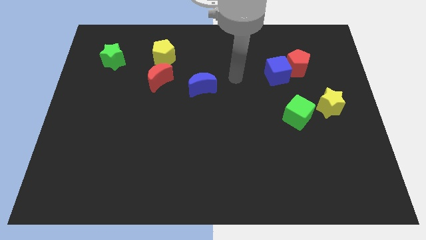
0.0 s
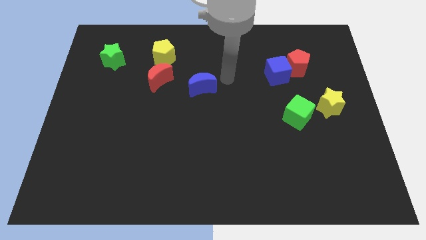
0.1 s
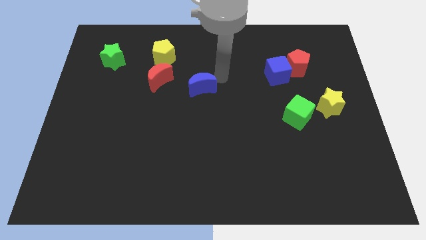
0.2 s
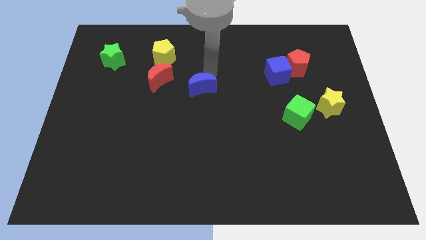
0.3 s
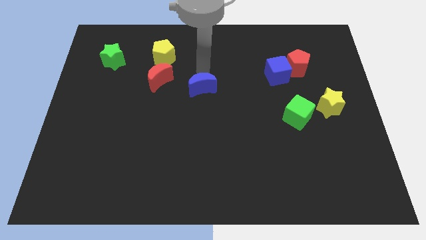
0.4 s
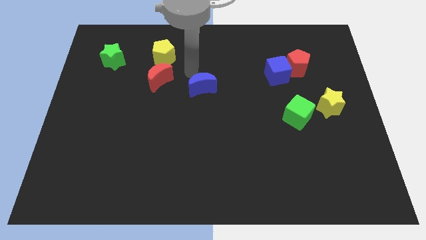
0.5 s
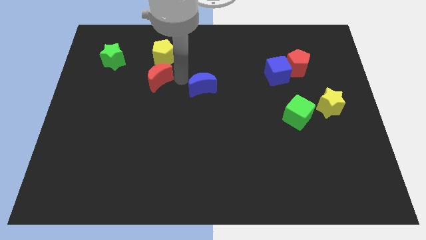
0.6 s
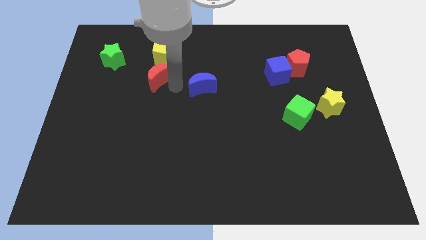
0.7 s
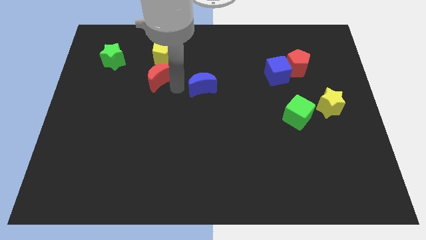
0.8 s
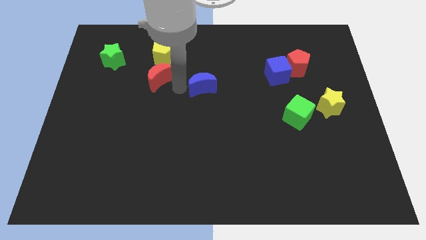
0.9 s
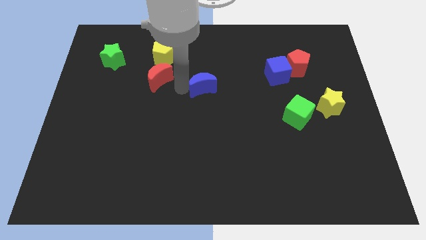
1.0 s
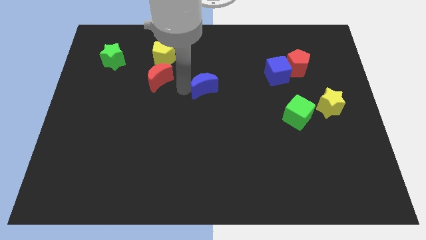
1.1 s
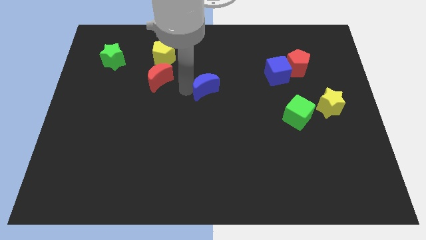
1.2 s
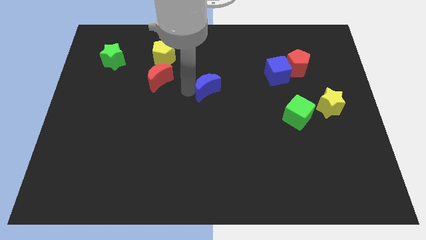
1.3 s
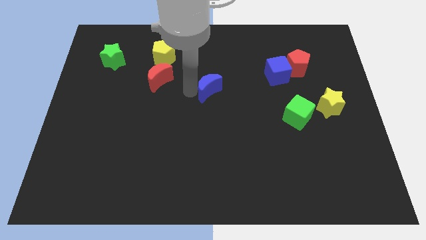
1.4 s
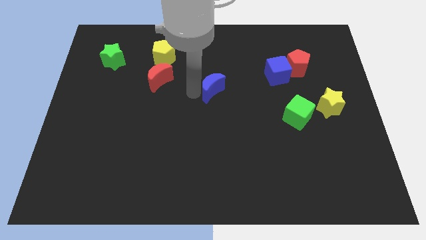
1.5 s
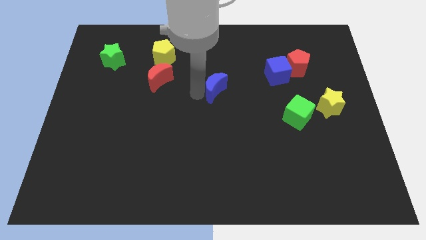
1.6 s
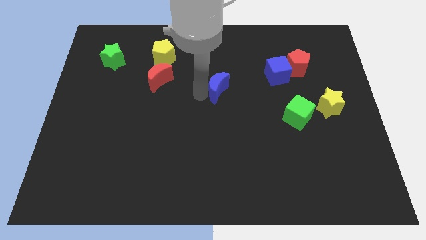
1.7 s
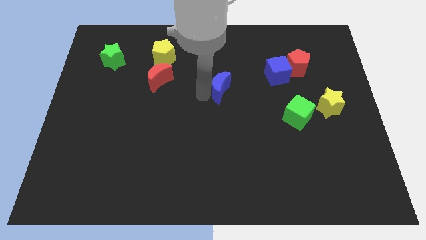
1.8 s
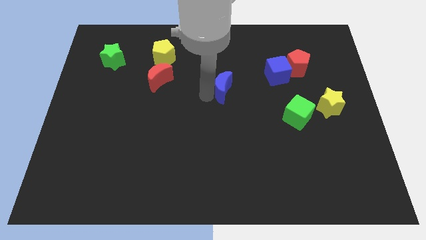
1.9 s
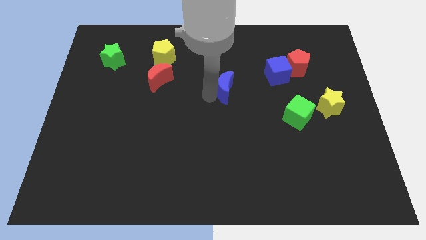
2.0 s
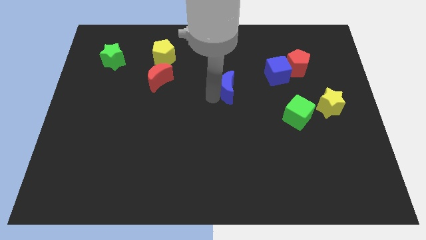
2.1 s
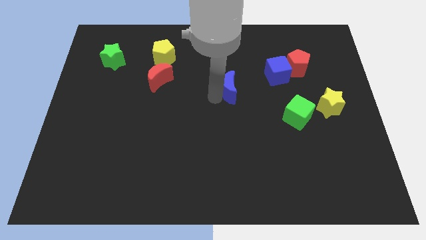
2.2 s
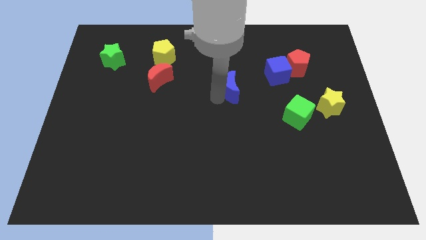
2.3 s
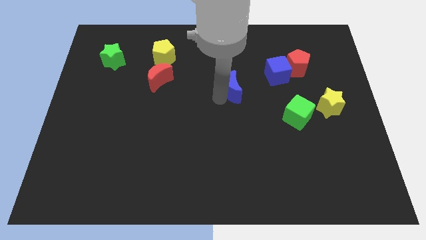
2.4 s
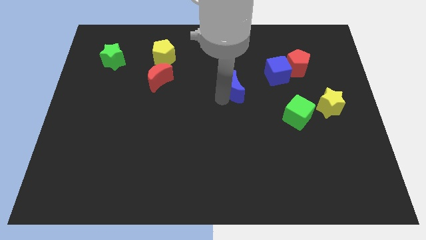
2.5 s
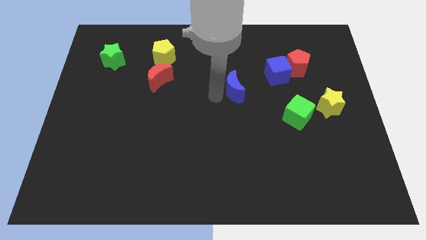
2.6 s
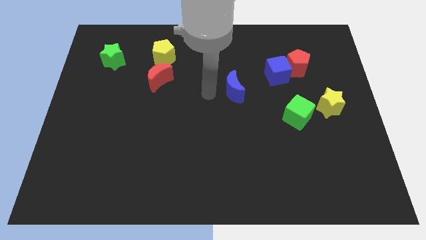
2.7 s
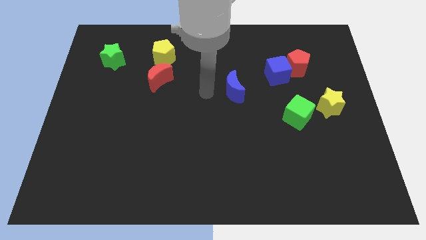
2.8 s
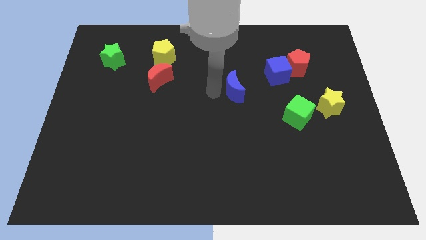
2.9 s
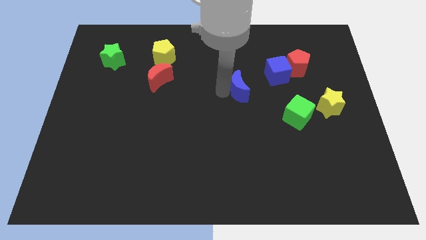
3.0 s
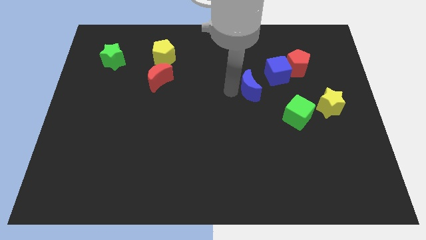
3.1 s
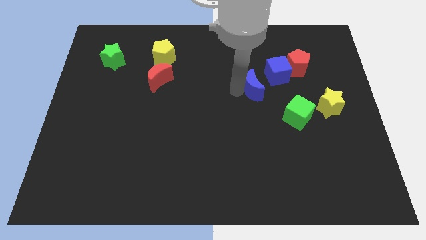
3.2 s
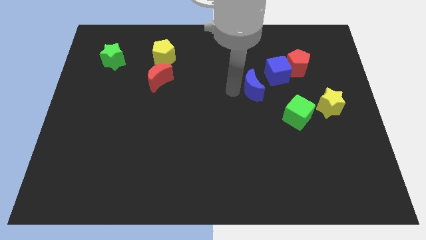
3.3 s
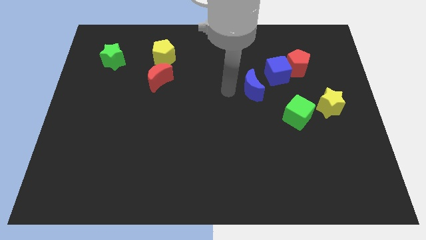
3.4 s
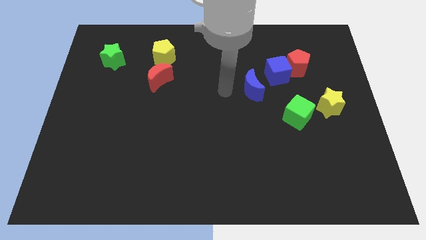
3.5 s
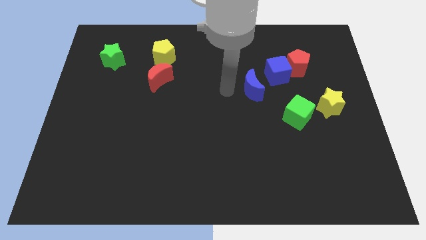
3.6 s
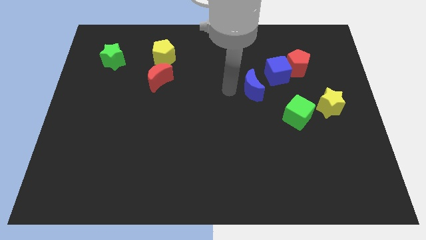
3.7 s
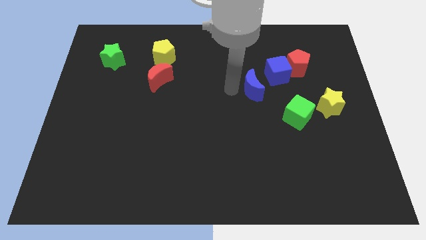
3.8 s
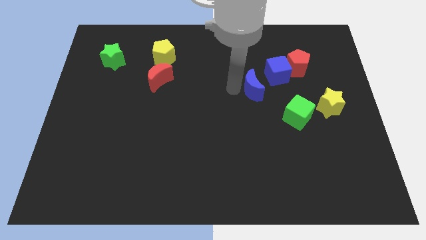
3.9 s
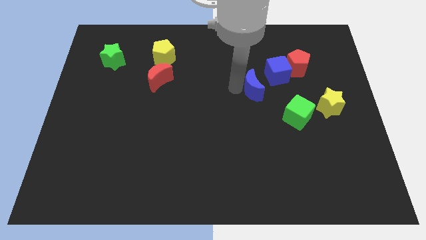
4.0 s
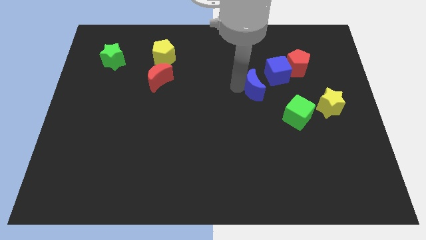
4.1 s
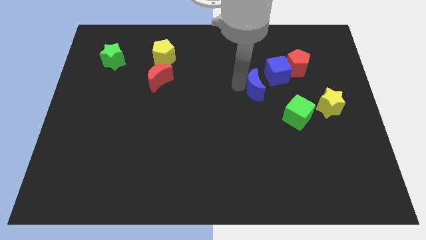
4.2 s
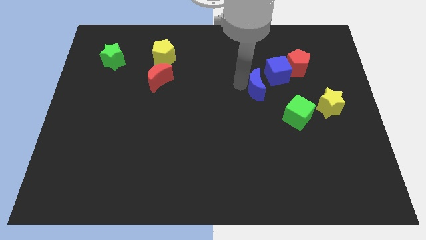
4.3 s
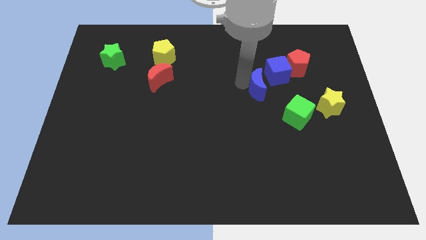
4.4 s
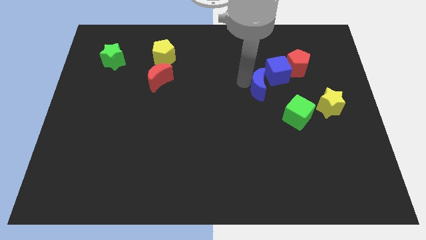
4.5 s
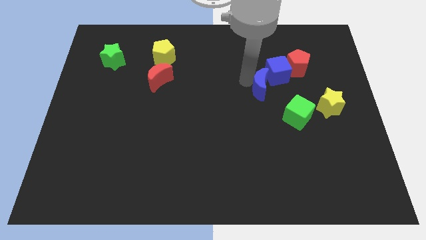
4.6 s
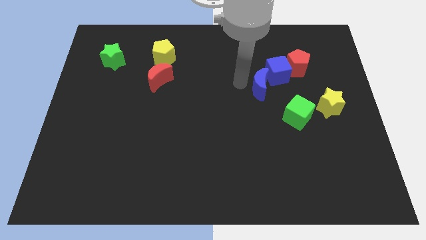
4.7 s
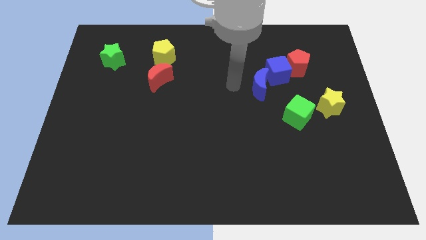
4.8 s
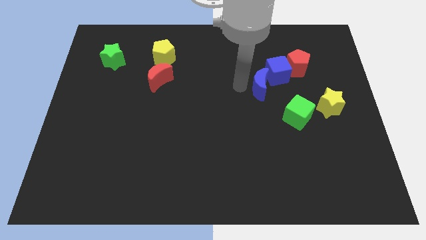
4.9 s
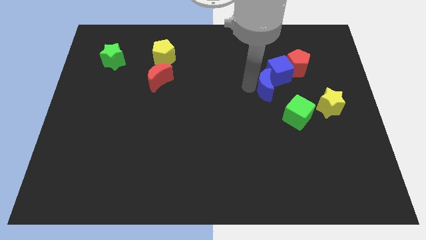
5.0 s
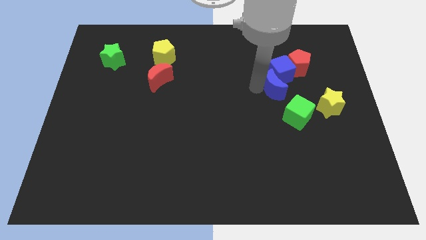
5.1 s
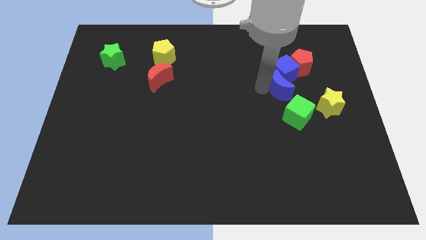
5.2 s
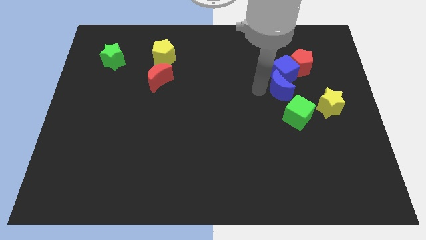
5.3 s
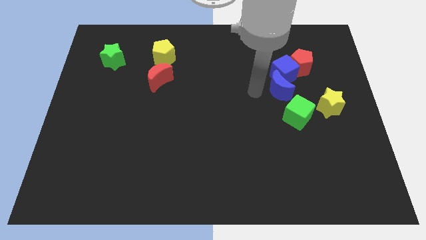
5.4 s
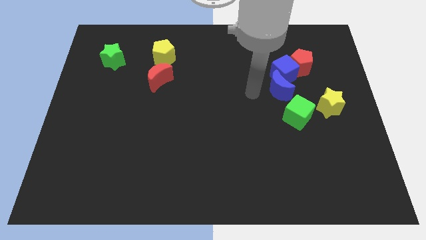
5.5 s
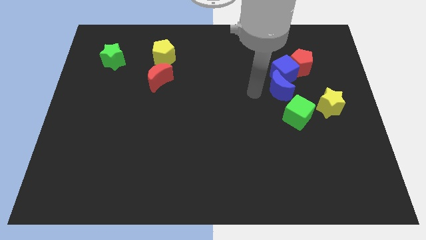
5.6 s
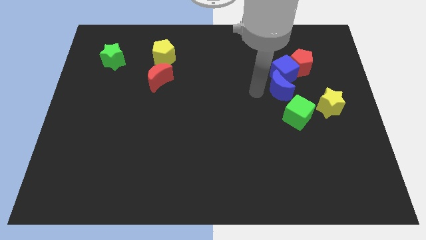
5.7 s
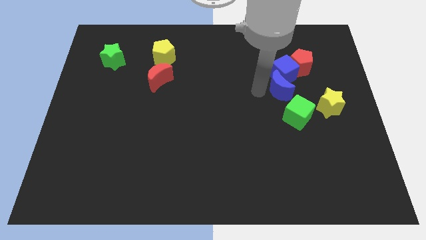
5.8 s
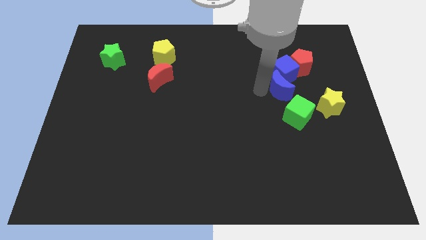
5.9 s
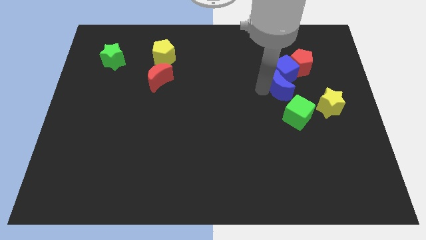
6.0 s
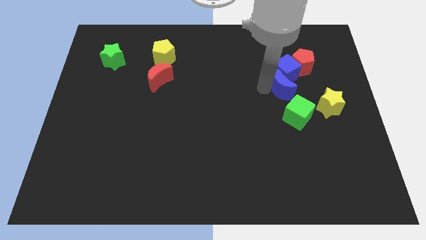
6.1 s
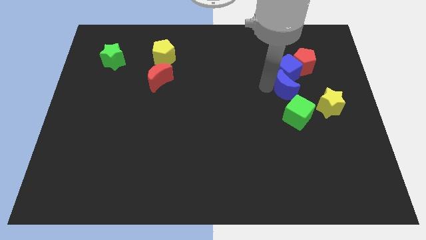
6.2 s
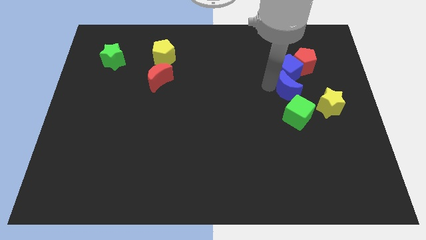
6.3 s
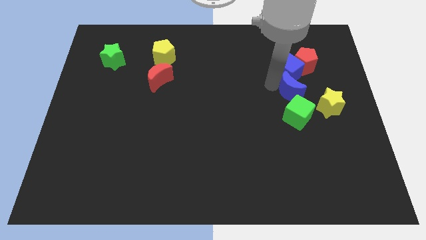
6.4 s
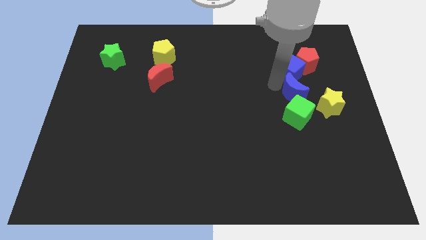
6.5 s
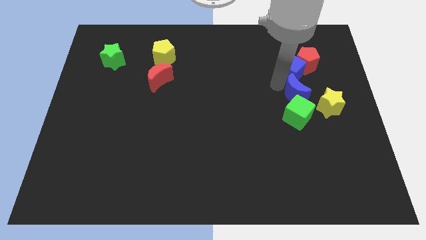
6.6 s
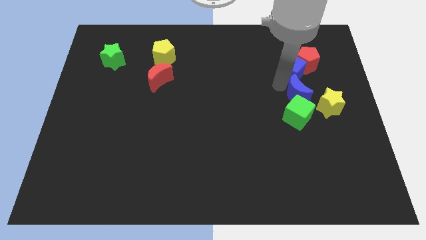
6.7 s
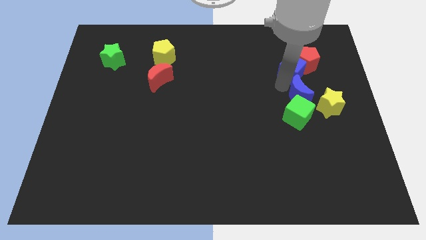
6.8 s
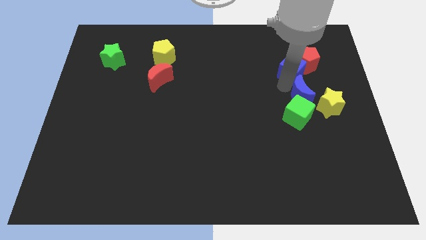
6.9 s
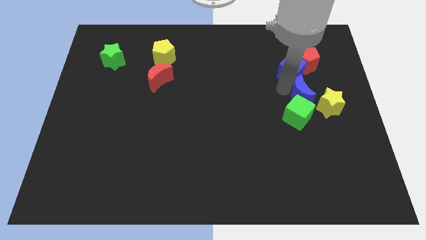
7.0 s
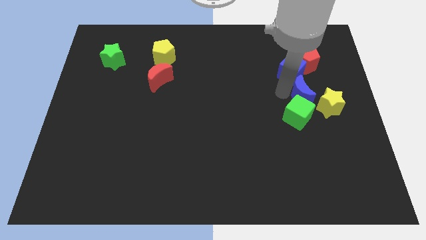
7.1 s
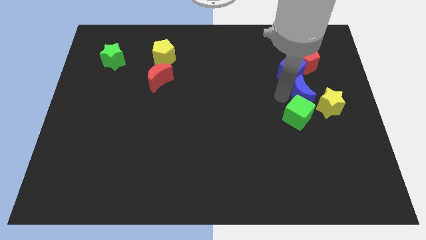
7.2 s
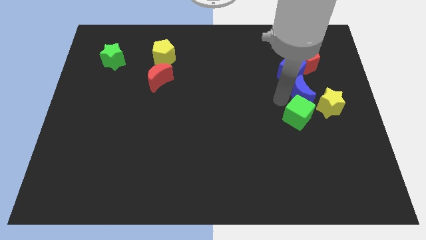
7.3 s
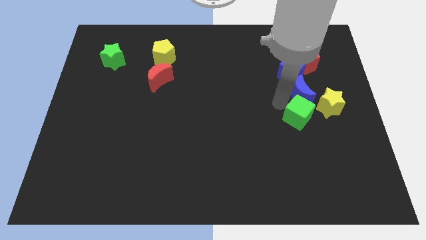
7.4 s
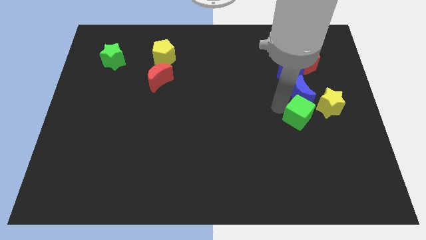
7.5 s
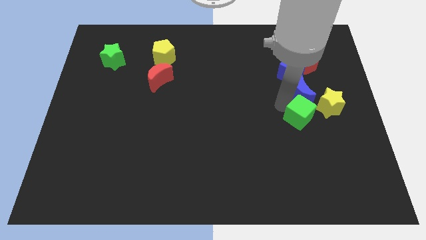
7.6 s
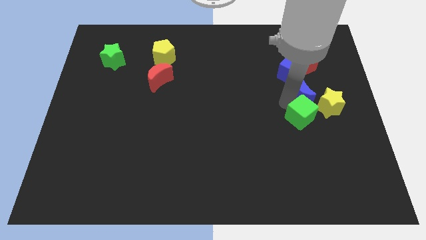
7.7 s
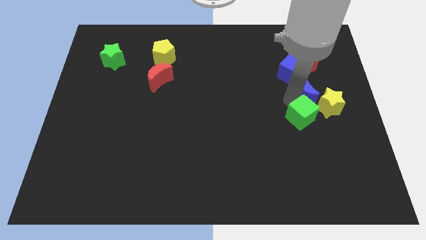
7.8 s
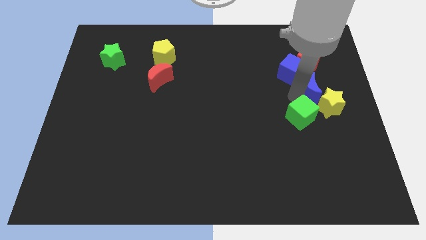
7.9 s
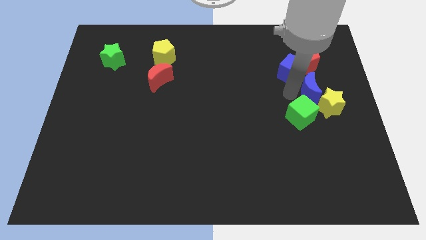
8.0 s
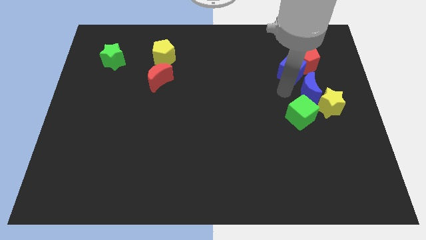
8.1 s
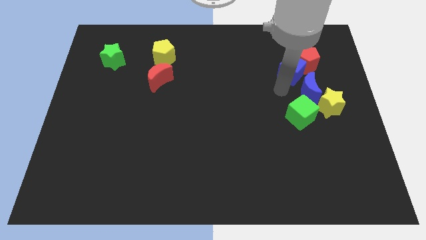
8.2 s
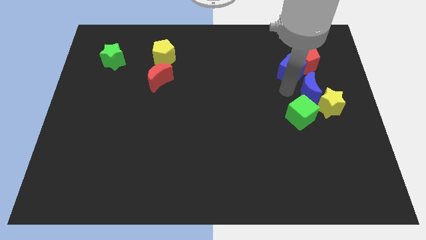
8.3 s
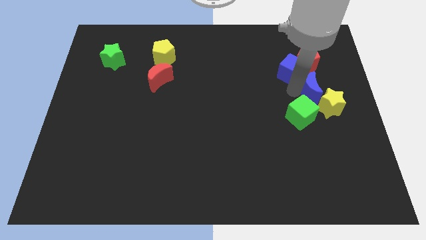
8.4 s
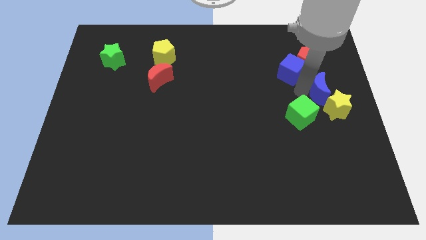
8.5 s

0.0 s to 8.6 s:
put the blue moon to the right side of the board
